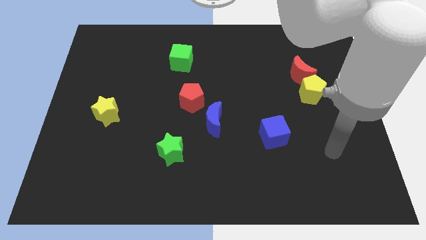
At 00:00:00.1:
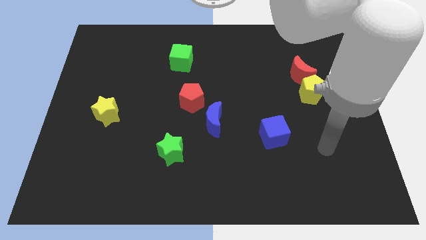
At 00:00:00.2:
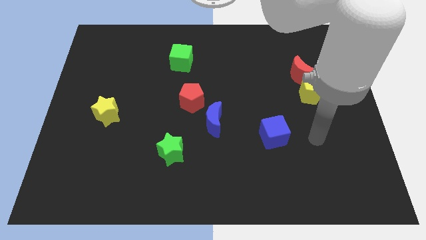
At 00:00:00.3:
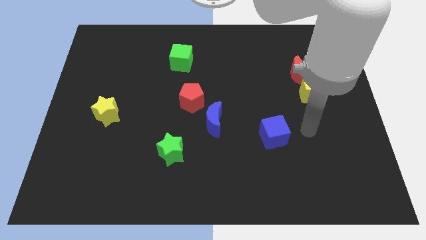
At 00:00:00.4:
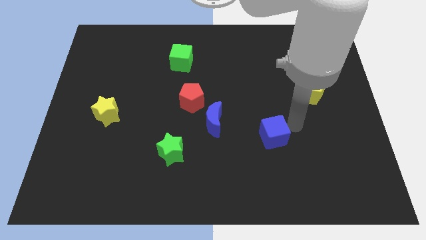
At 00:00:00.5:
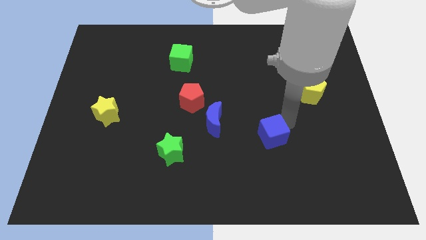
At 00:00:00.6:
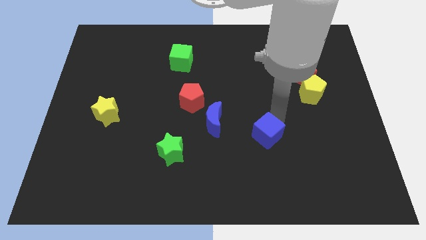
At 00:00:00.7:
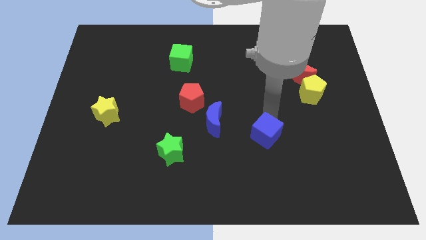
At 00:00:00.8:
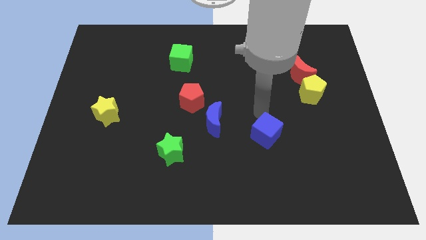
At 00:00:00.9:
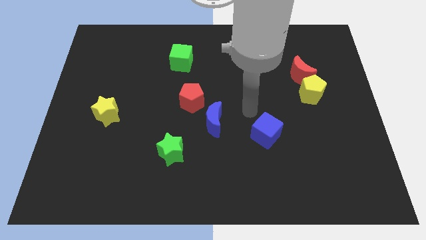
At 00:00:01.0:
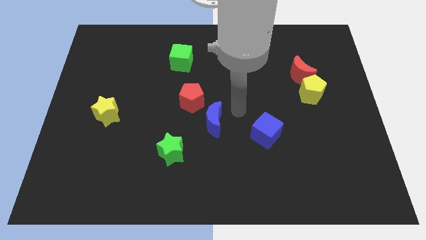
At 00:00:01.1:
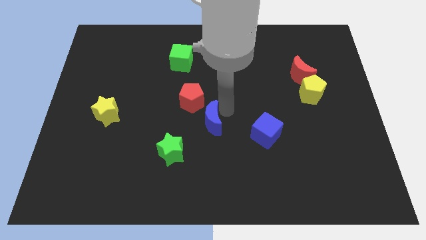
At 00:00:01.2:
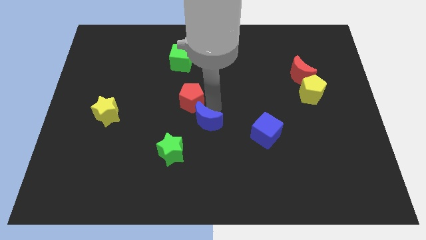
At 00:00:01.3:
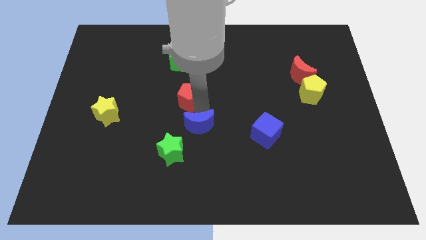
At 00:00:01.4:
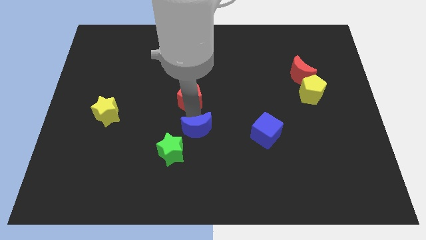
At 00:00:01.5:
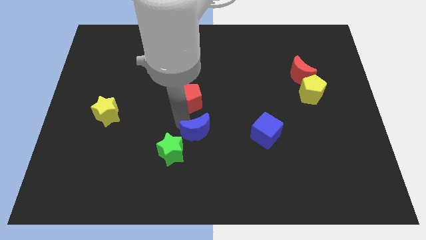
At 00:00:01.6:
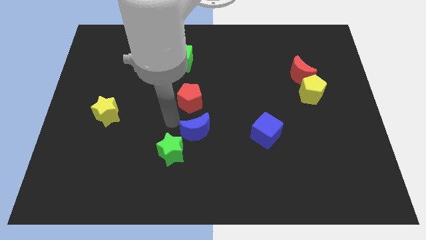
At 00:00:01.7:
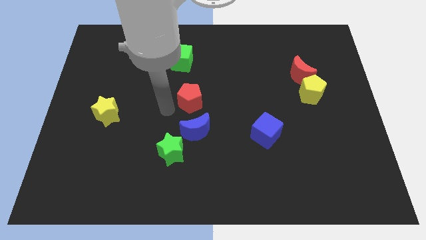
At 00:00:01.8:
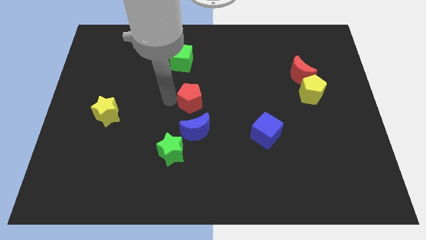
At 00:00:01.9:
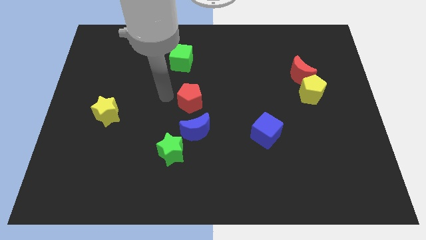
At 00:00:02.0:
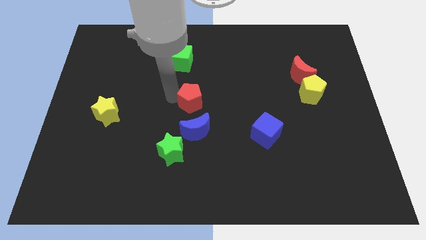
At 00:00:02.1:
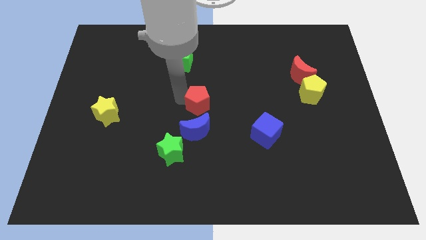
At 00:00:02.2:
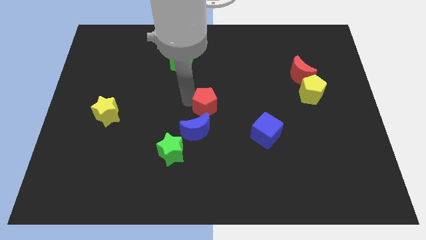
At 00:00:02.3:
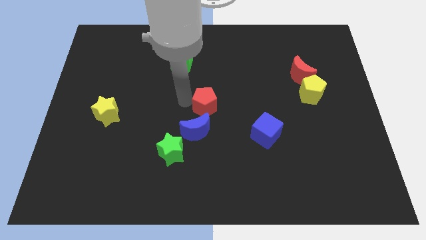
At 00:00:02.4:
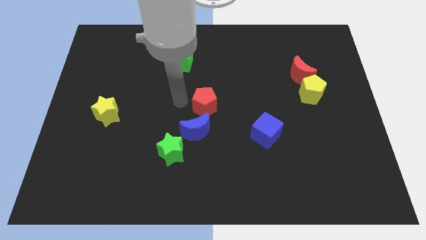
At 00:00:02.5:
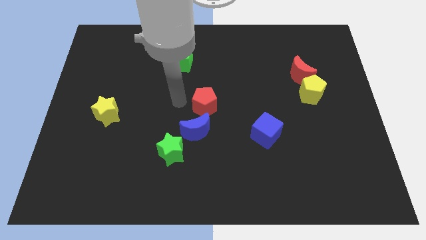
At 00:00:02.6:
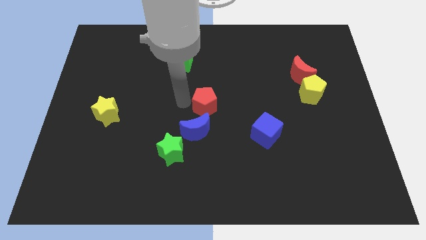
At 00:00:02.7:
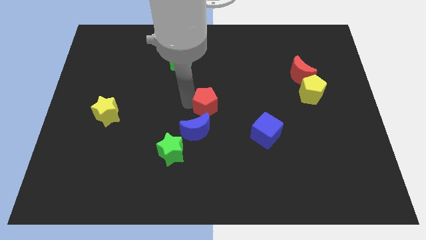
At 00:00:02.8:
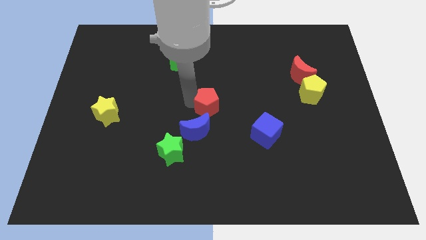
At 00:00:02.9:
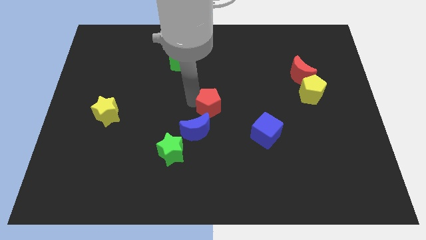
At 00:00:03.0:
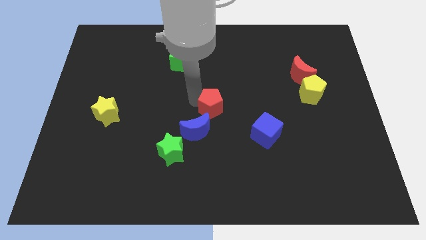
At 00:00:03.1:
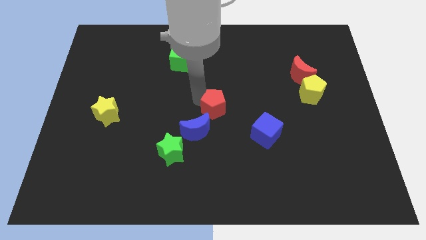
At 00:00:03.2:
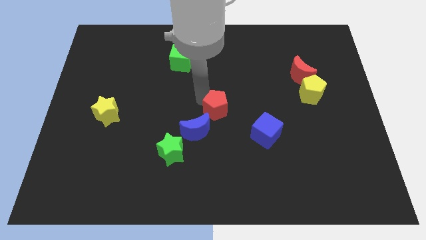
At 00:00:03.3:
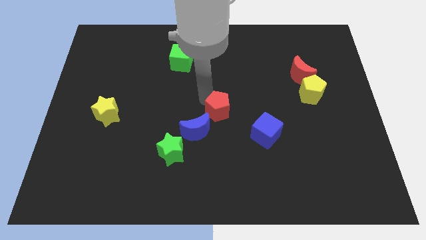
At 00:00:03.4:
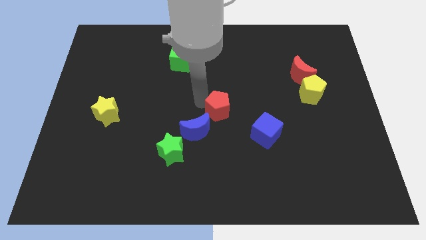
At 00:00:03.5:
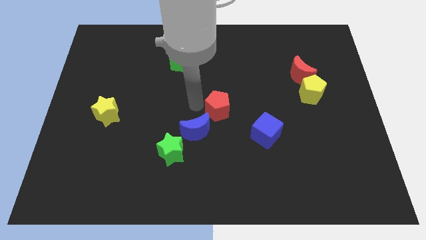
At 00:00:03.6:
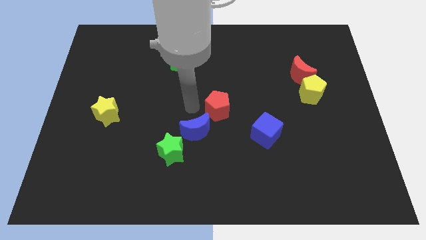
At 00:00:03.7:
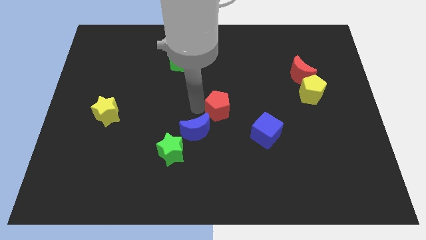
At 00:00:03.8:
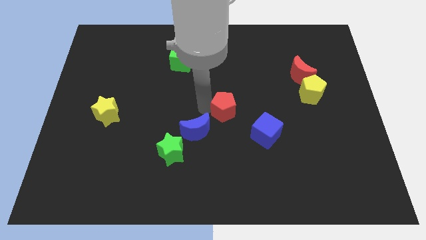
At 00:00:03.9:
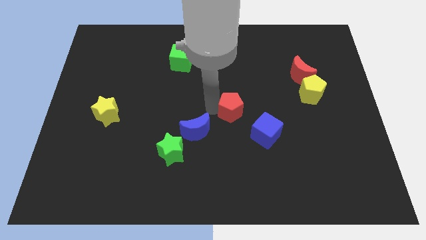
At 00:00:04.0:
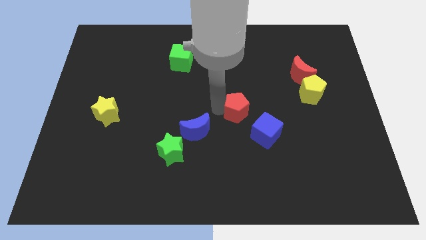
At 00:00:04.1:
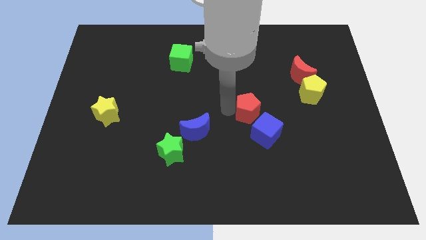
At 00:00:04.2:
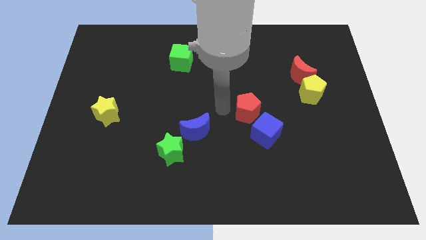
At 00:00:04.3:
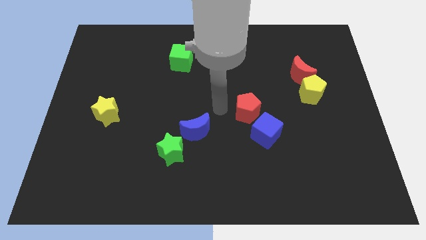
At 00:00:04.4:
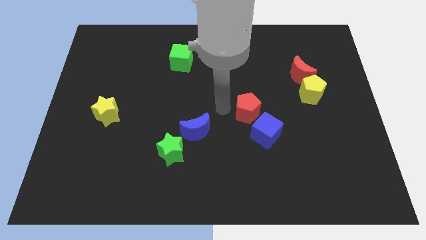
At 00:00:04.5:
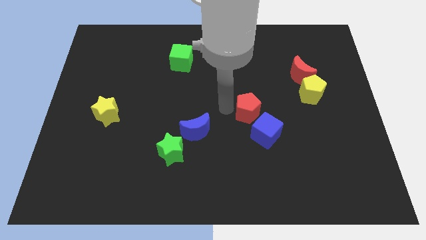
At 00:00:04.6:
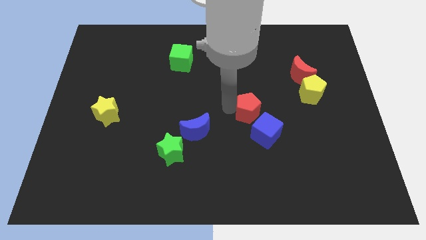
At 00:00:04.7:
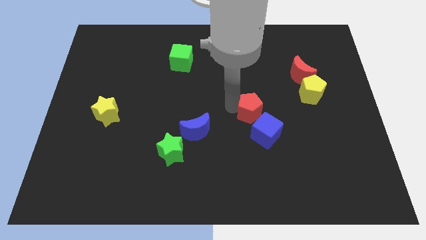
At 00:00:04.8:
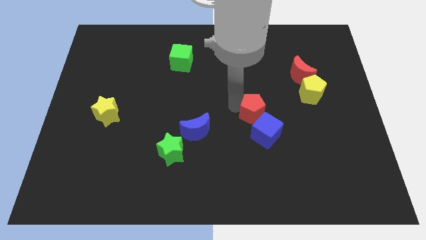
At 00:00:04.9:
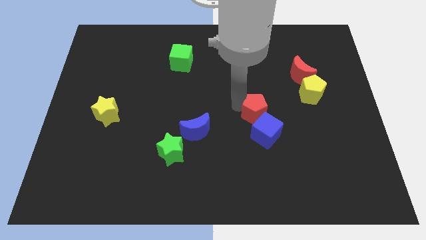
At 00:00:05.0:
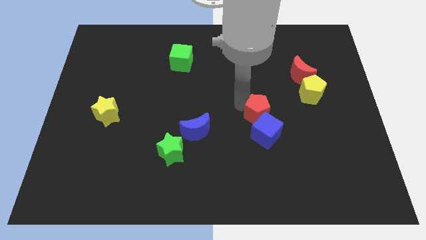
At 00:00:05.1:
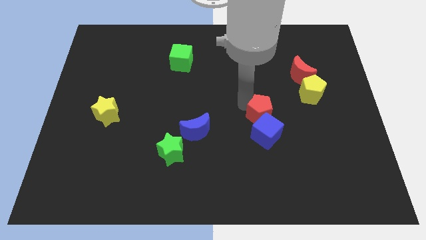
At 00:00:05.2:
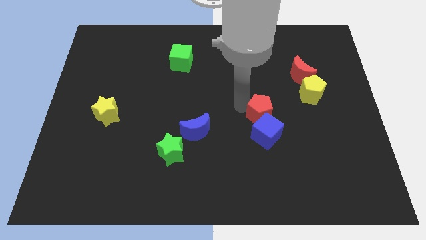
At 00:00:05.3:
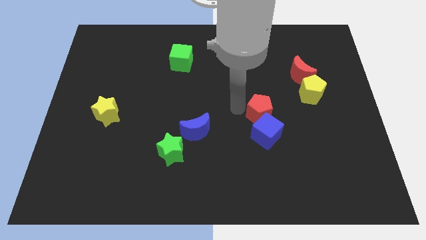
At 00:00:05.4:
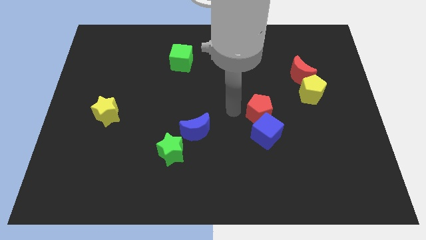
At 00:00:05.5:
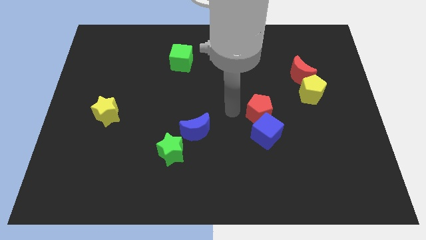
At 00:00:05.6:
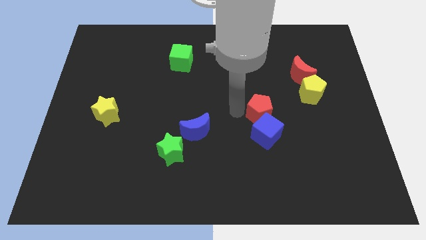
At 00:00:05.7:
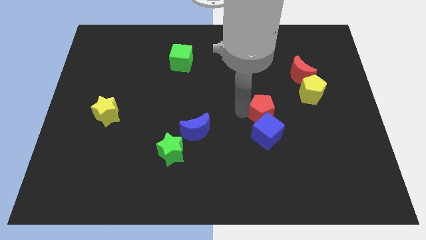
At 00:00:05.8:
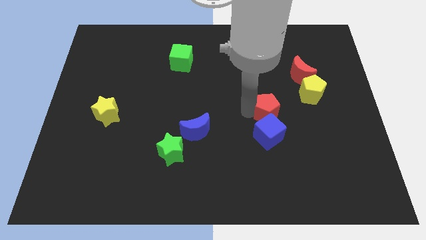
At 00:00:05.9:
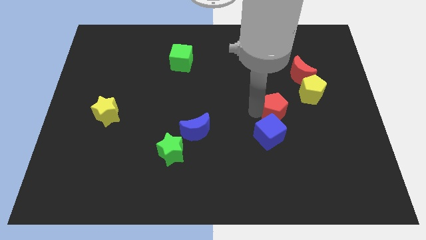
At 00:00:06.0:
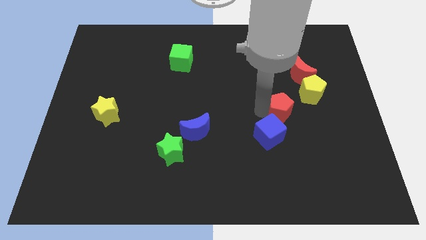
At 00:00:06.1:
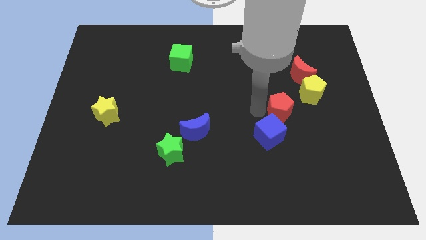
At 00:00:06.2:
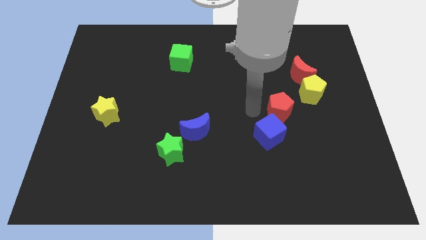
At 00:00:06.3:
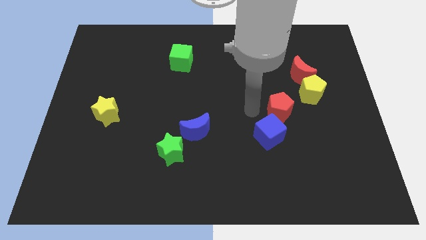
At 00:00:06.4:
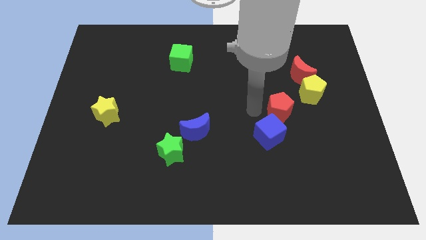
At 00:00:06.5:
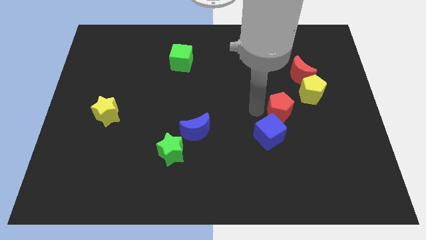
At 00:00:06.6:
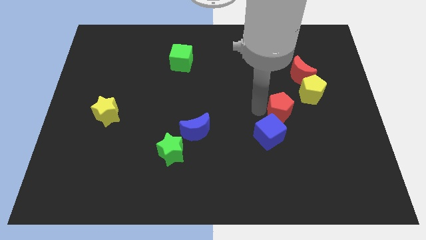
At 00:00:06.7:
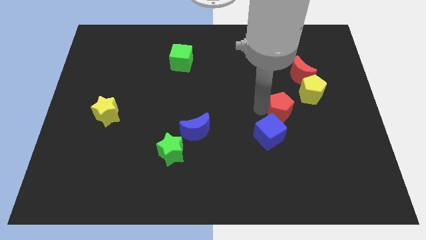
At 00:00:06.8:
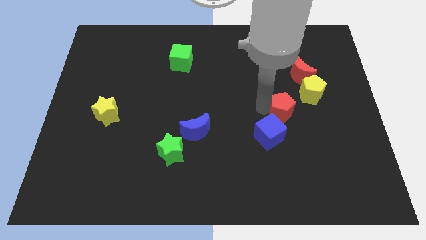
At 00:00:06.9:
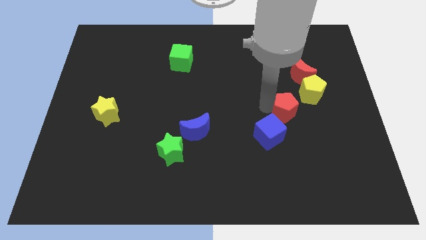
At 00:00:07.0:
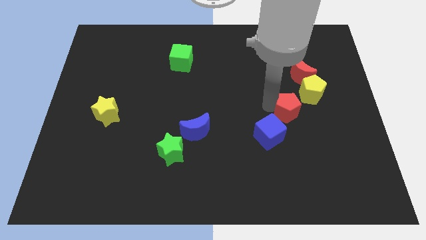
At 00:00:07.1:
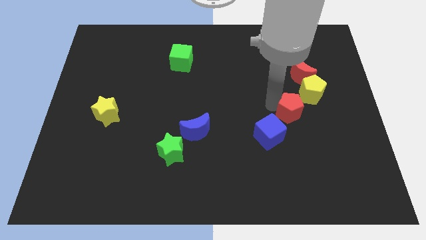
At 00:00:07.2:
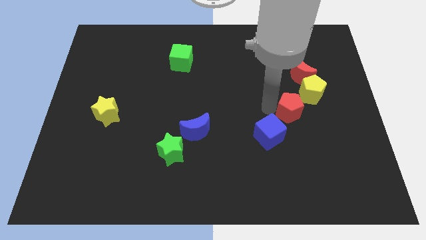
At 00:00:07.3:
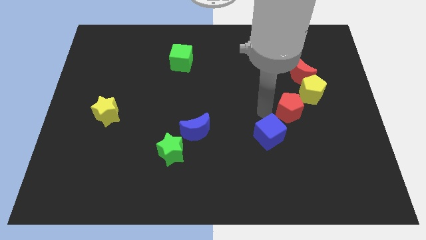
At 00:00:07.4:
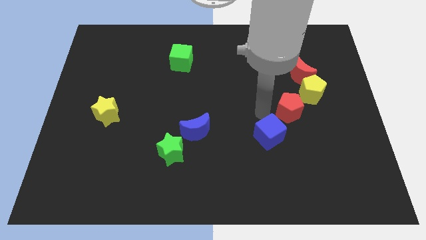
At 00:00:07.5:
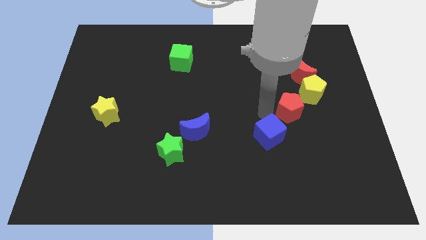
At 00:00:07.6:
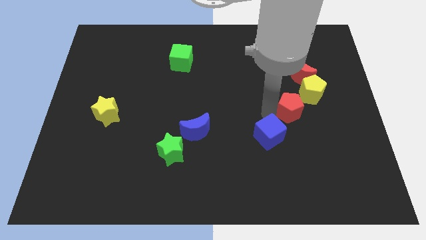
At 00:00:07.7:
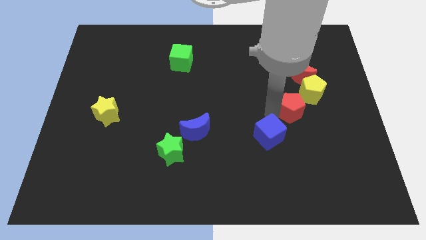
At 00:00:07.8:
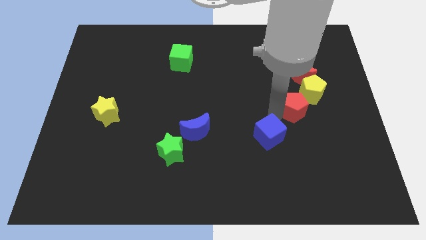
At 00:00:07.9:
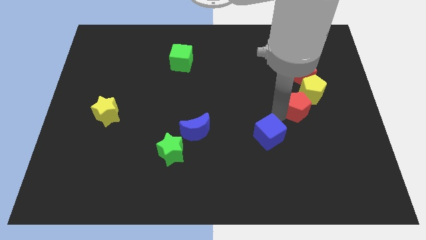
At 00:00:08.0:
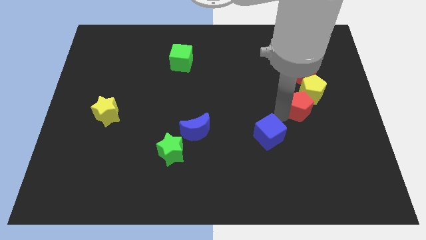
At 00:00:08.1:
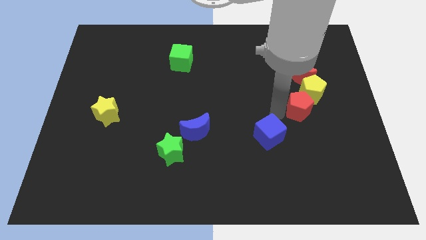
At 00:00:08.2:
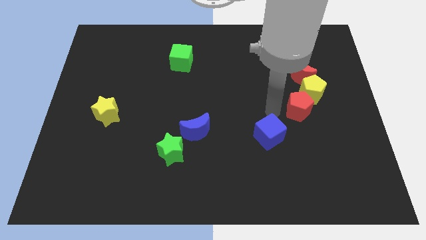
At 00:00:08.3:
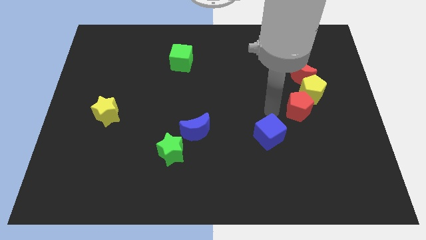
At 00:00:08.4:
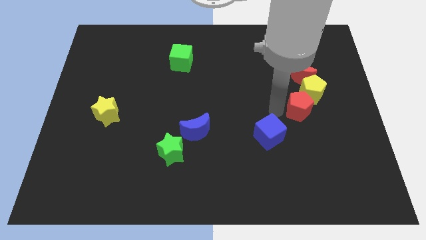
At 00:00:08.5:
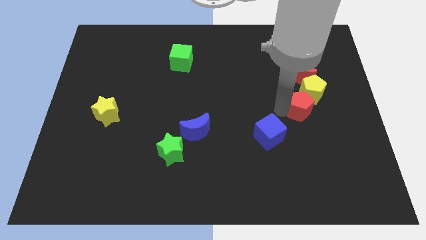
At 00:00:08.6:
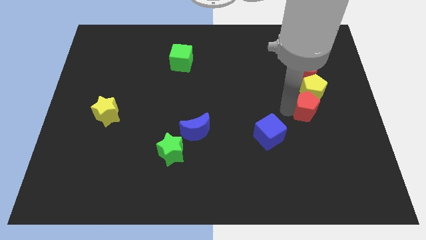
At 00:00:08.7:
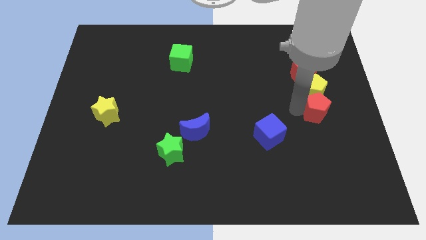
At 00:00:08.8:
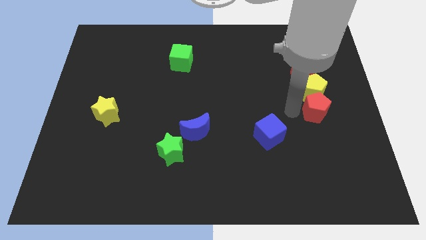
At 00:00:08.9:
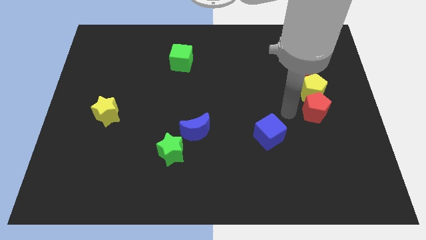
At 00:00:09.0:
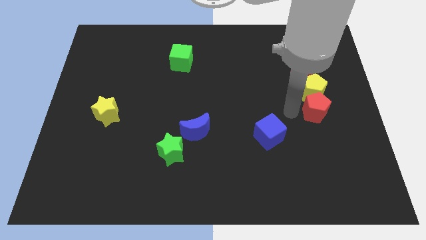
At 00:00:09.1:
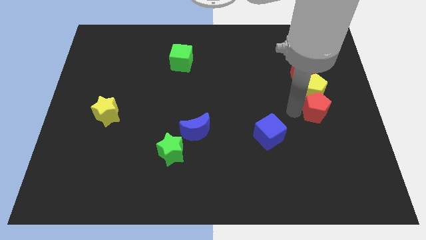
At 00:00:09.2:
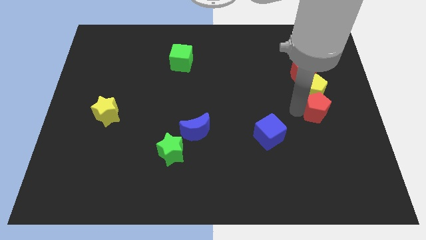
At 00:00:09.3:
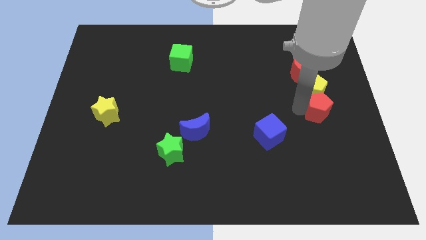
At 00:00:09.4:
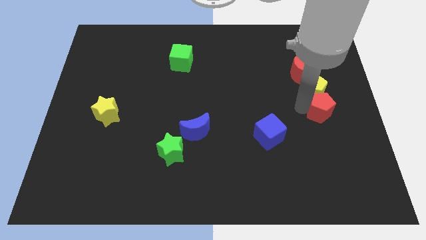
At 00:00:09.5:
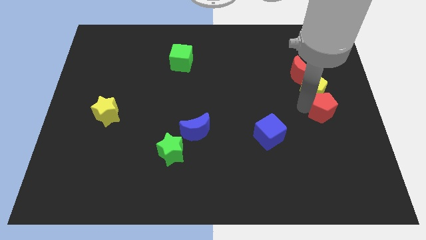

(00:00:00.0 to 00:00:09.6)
push the red pentagon to the center right
